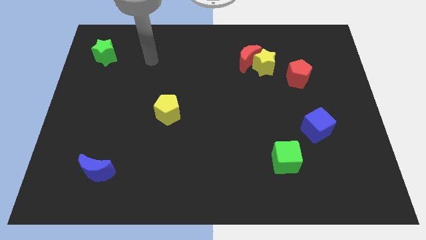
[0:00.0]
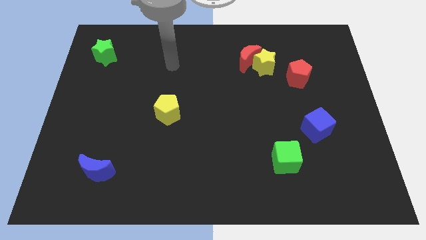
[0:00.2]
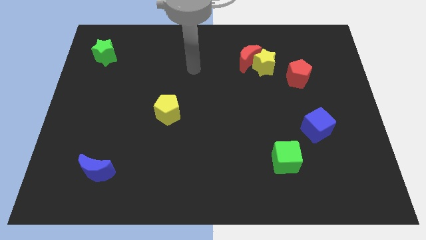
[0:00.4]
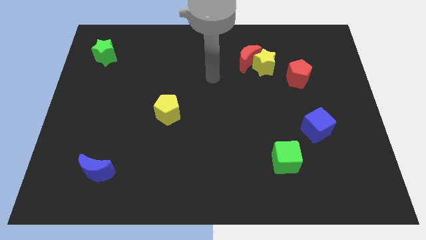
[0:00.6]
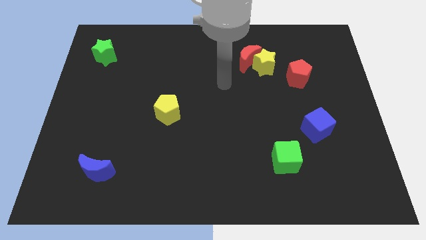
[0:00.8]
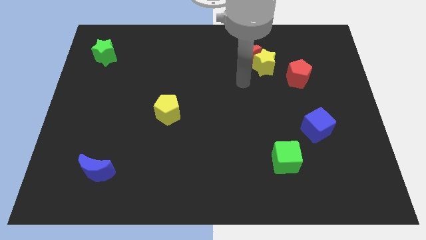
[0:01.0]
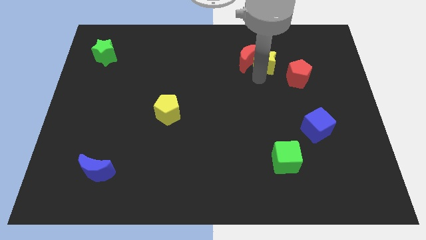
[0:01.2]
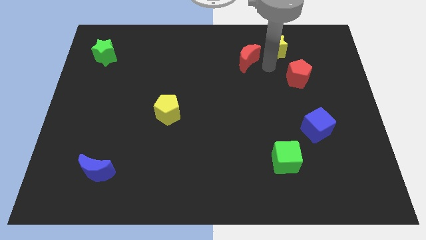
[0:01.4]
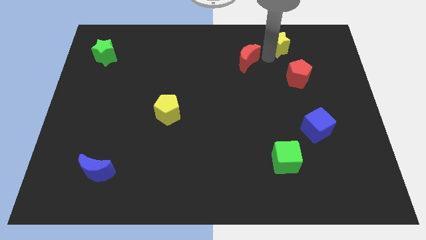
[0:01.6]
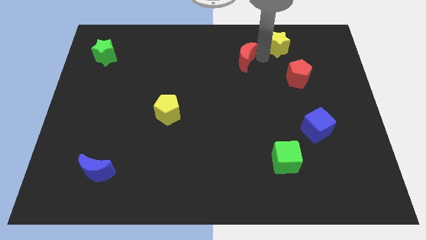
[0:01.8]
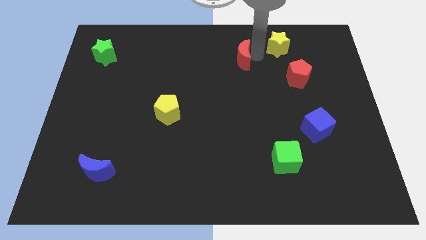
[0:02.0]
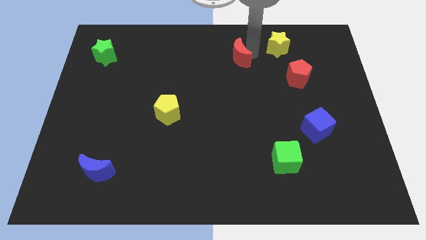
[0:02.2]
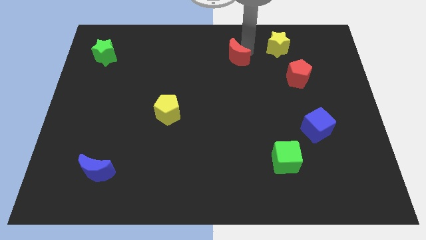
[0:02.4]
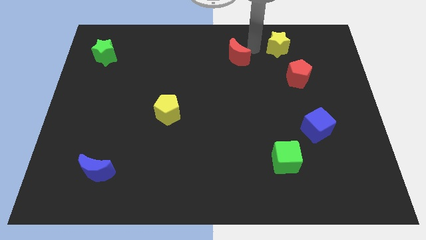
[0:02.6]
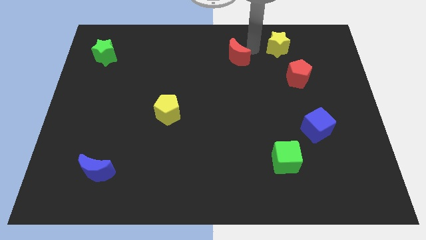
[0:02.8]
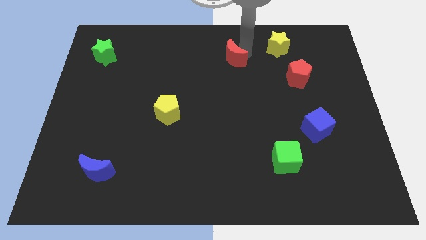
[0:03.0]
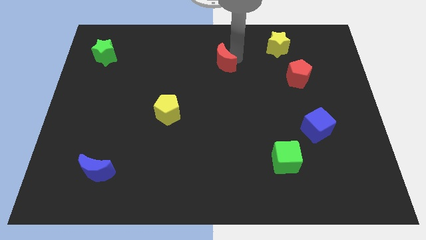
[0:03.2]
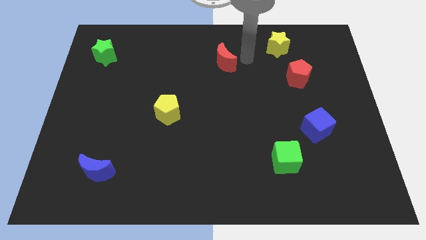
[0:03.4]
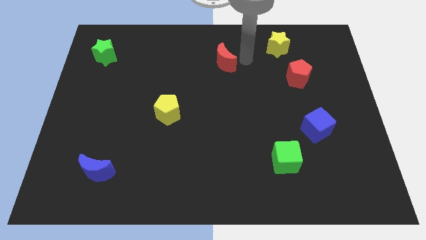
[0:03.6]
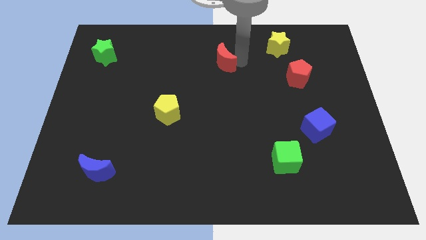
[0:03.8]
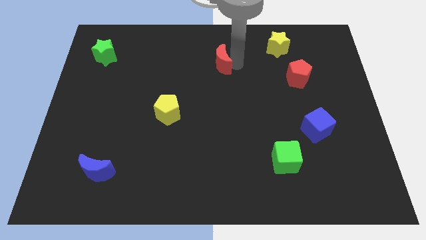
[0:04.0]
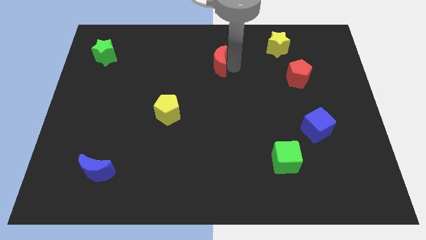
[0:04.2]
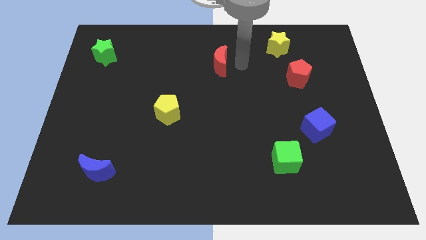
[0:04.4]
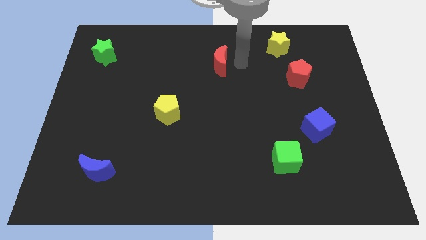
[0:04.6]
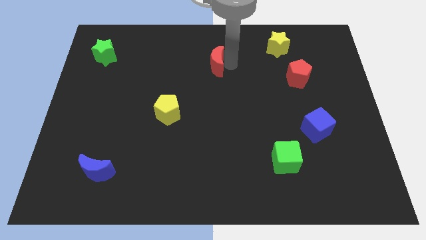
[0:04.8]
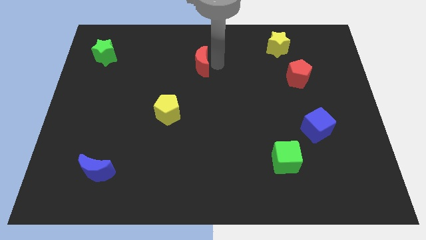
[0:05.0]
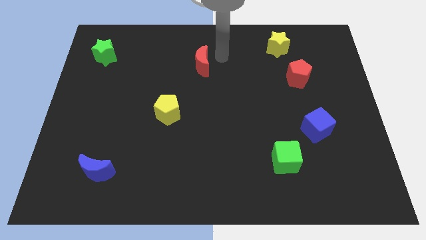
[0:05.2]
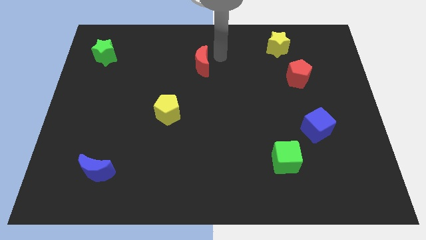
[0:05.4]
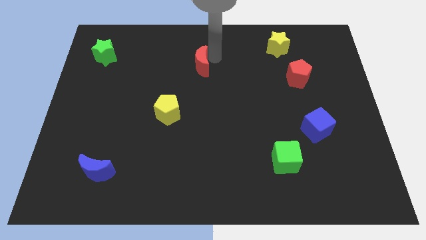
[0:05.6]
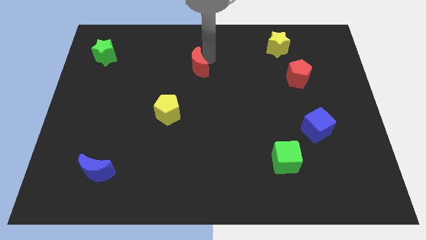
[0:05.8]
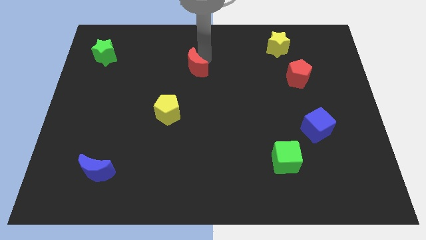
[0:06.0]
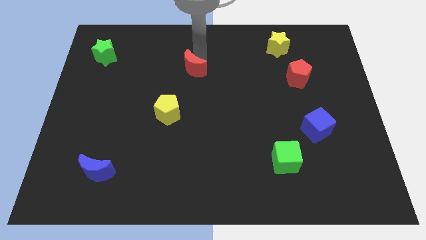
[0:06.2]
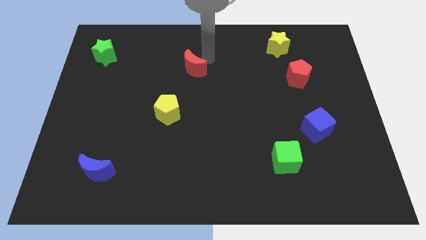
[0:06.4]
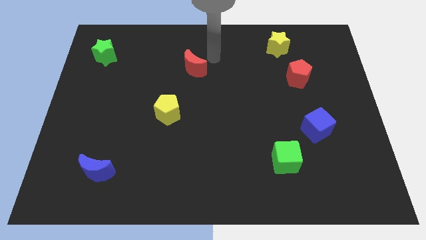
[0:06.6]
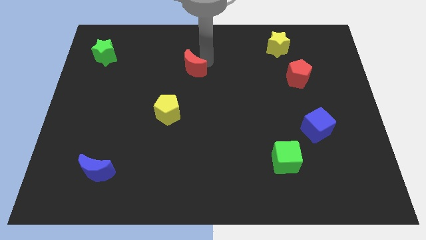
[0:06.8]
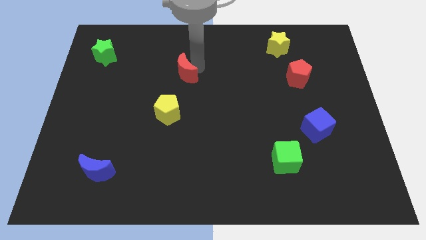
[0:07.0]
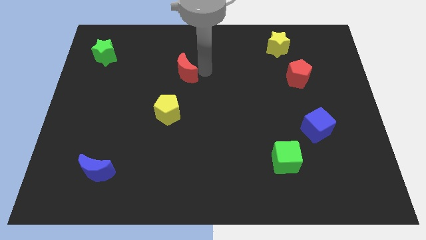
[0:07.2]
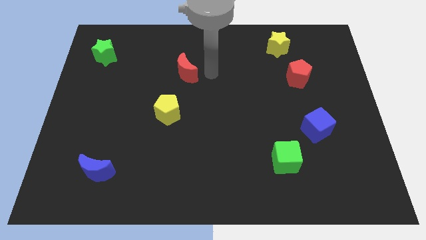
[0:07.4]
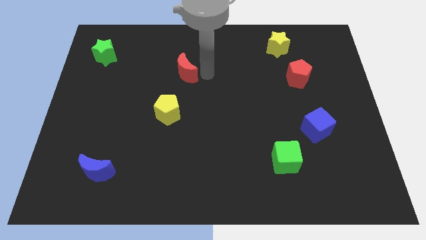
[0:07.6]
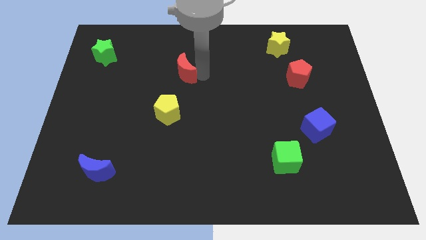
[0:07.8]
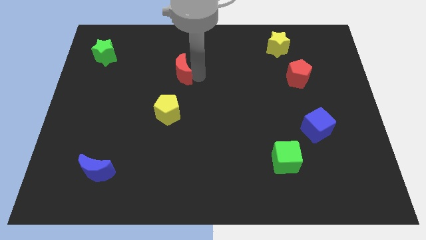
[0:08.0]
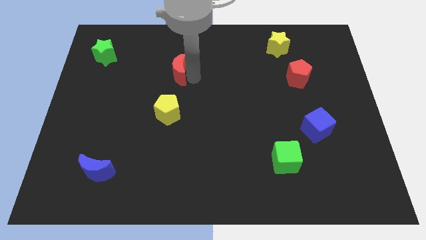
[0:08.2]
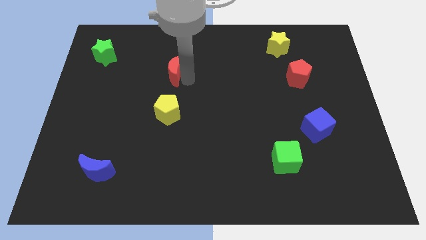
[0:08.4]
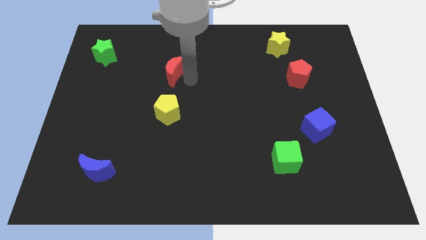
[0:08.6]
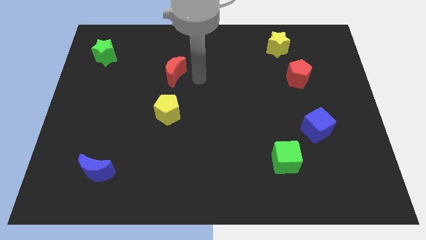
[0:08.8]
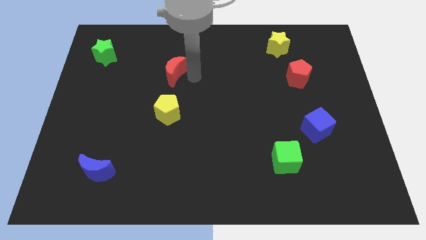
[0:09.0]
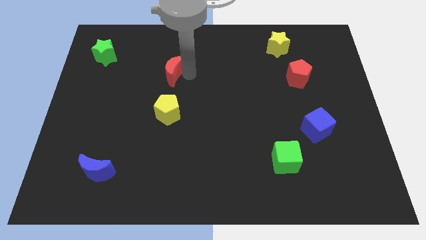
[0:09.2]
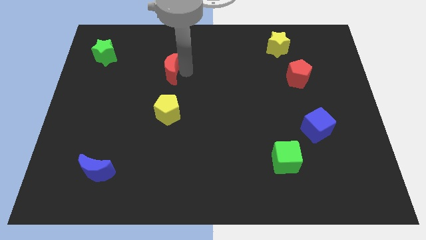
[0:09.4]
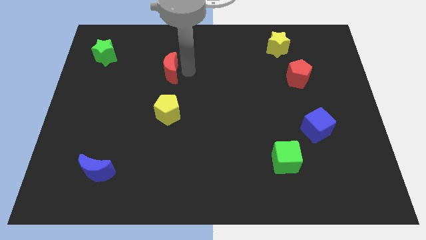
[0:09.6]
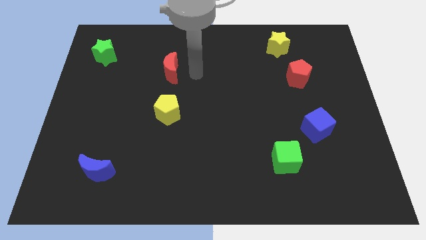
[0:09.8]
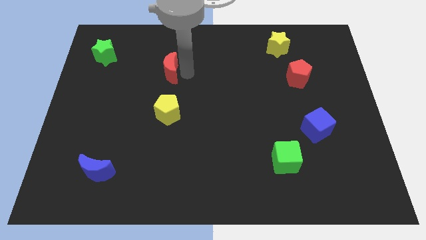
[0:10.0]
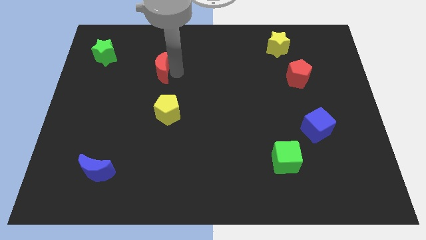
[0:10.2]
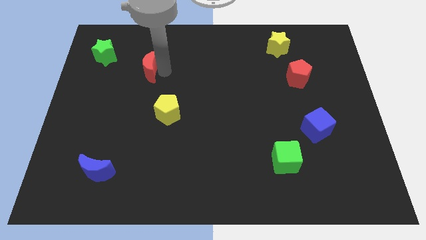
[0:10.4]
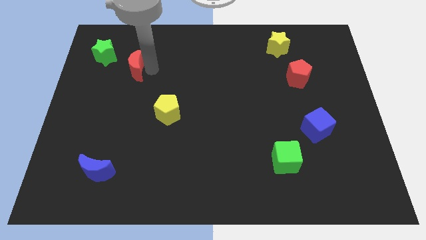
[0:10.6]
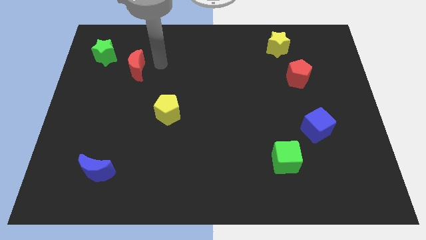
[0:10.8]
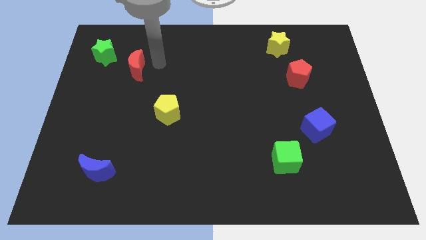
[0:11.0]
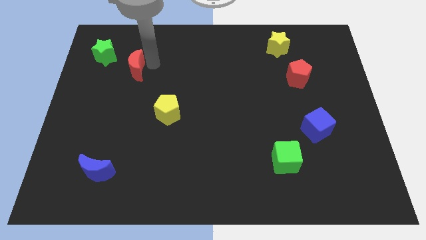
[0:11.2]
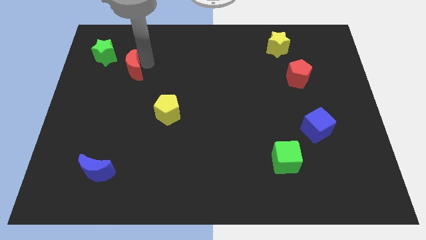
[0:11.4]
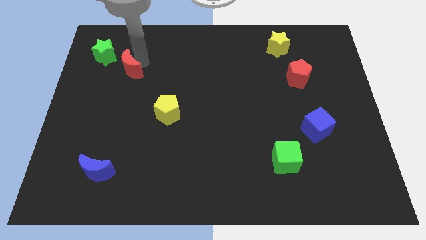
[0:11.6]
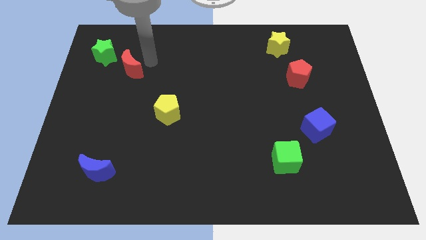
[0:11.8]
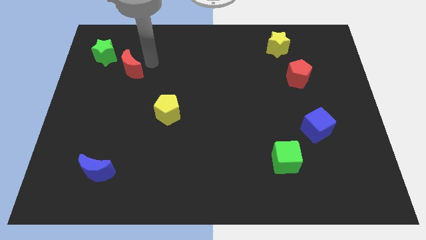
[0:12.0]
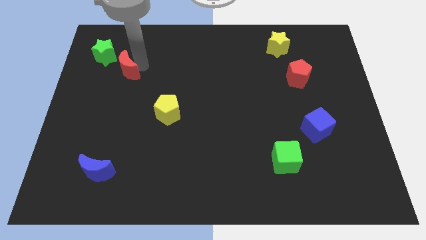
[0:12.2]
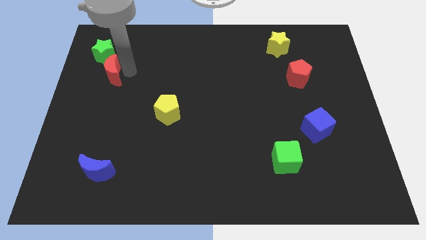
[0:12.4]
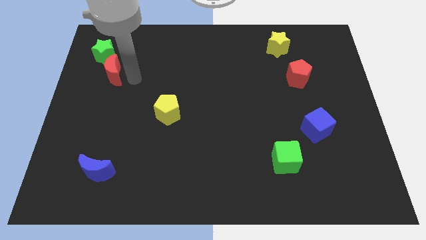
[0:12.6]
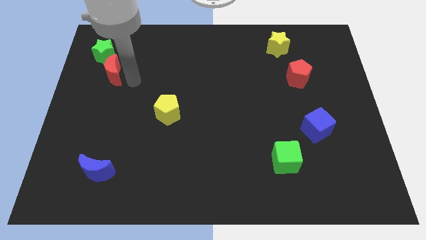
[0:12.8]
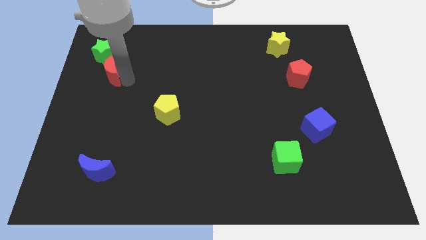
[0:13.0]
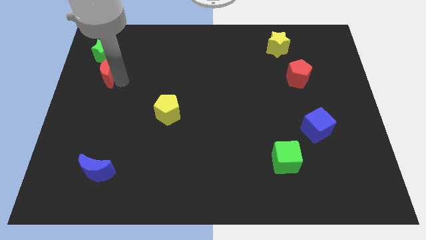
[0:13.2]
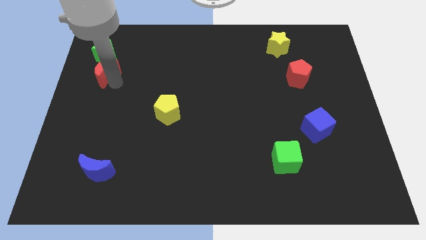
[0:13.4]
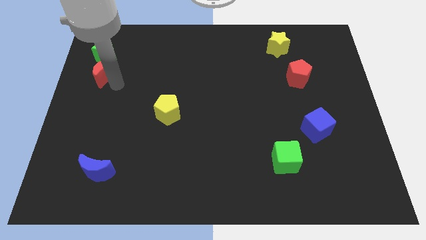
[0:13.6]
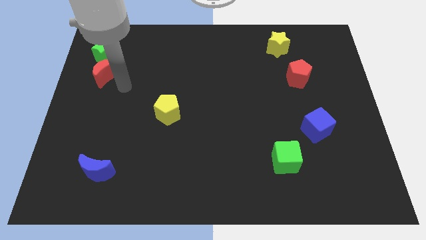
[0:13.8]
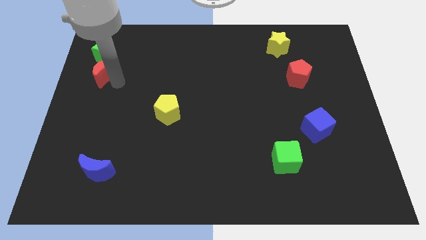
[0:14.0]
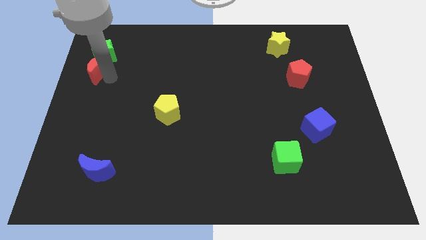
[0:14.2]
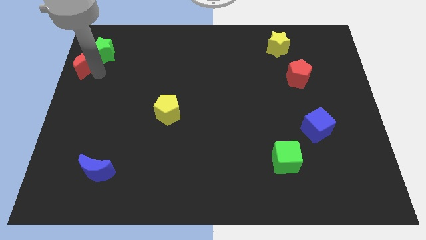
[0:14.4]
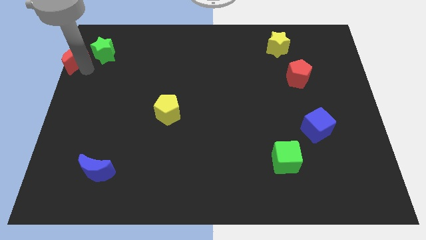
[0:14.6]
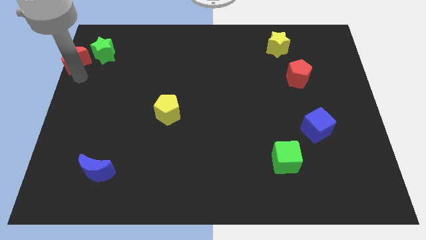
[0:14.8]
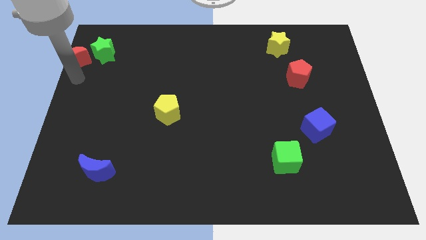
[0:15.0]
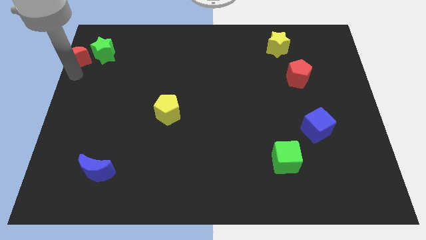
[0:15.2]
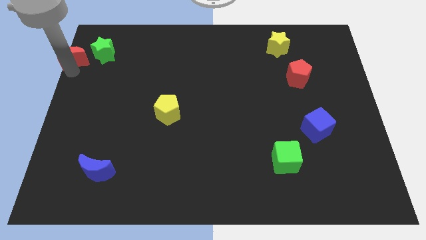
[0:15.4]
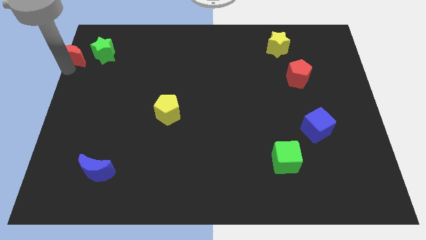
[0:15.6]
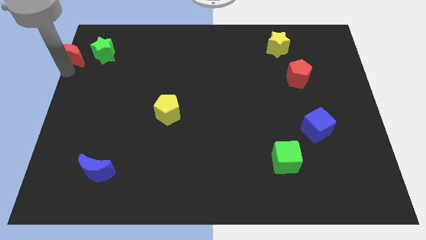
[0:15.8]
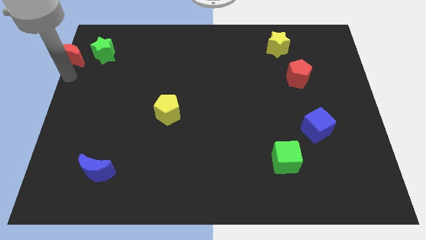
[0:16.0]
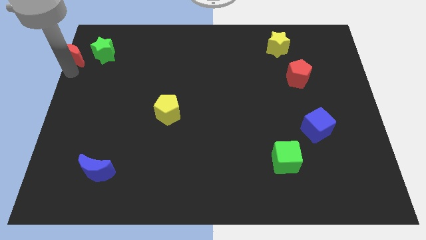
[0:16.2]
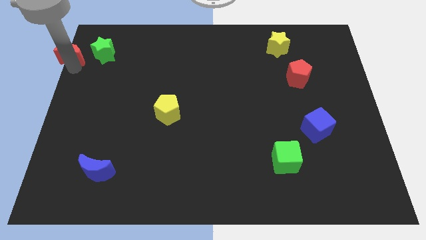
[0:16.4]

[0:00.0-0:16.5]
slide the red moon to the upper left corner
